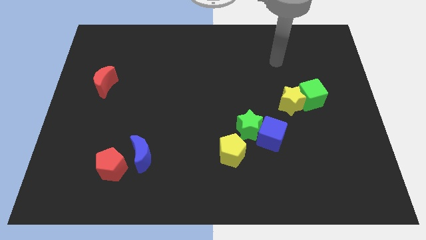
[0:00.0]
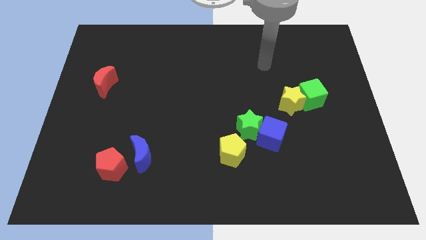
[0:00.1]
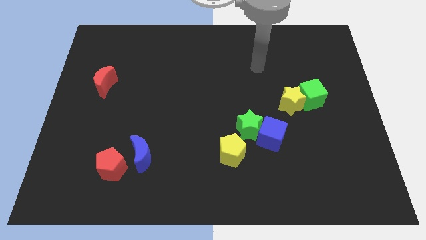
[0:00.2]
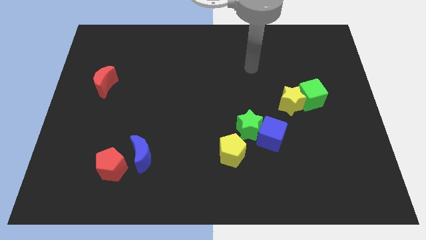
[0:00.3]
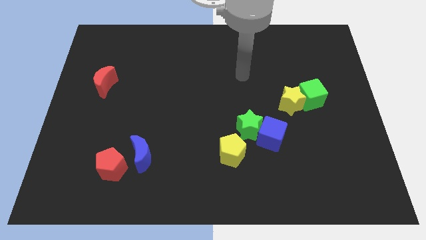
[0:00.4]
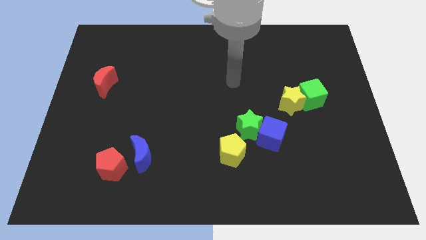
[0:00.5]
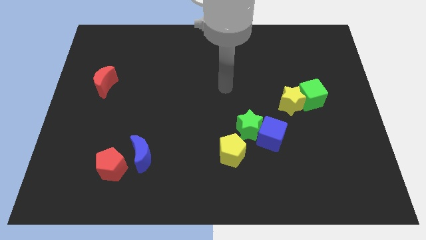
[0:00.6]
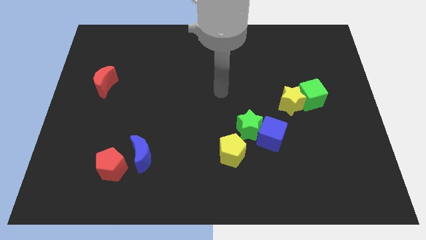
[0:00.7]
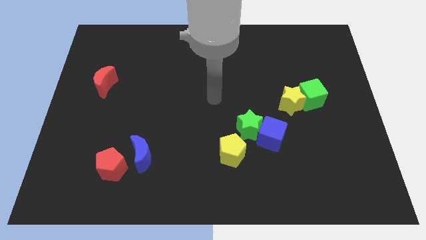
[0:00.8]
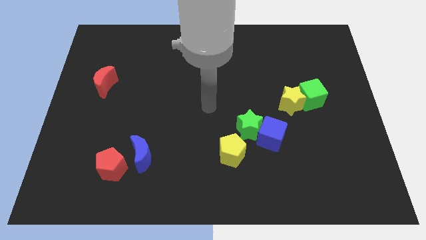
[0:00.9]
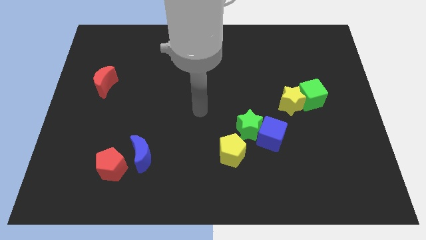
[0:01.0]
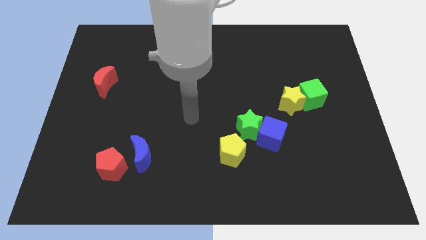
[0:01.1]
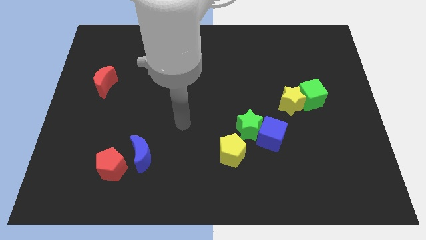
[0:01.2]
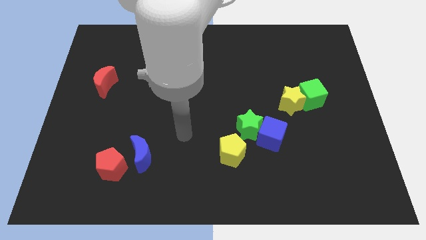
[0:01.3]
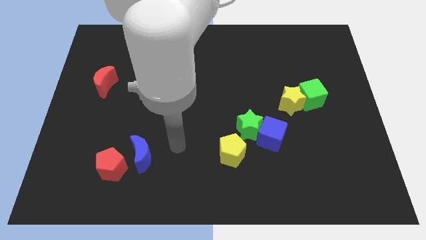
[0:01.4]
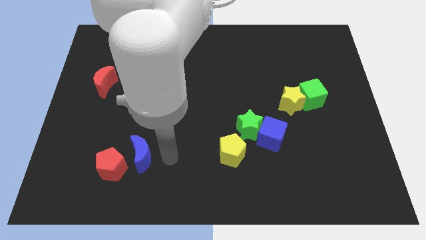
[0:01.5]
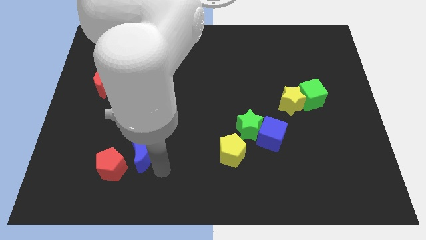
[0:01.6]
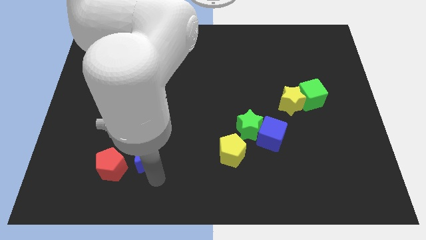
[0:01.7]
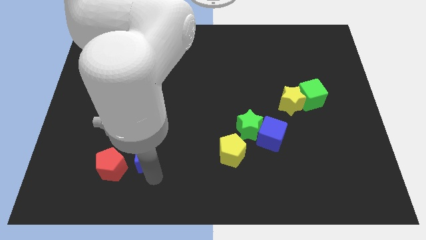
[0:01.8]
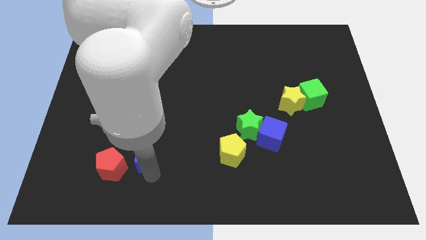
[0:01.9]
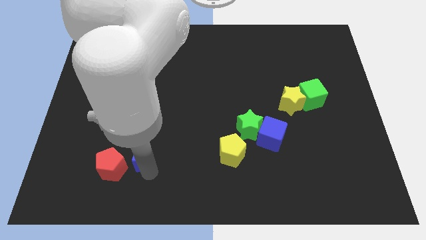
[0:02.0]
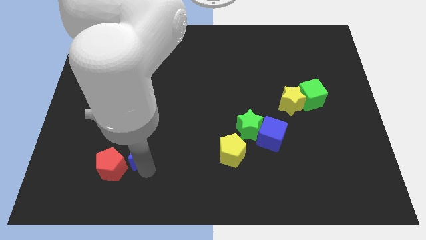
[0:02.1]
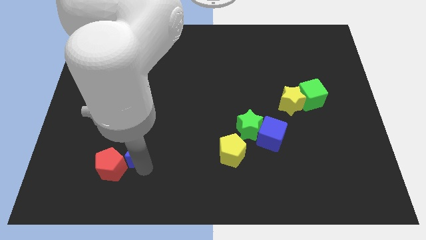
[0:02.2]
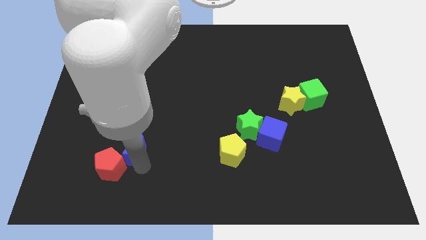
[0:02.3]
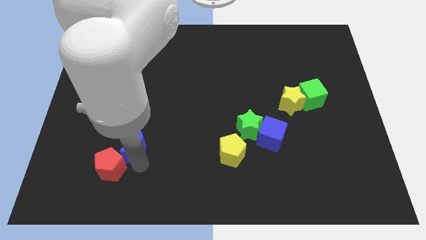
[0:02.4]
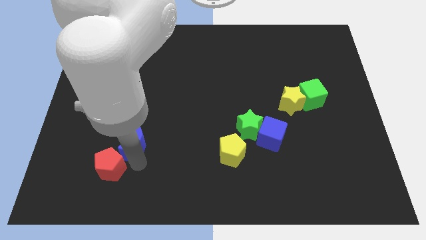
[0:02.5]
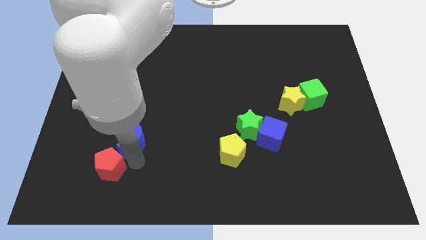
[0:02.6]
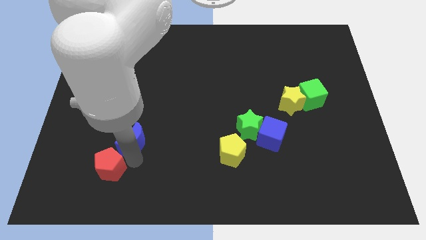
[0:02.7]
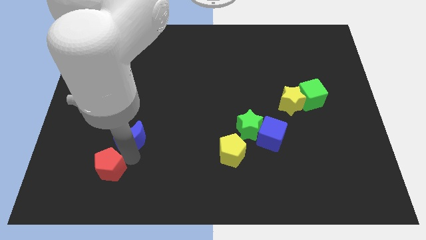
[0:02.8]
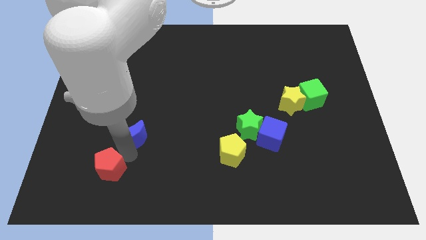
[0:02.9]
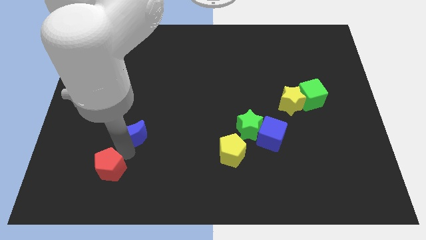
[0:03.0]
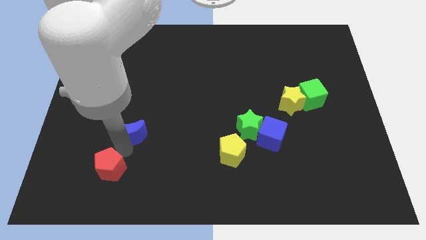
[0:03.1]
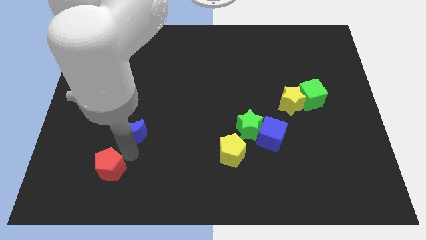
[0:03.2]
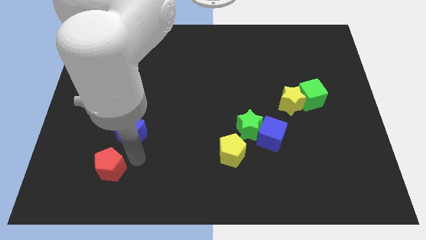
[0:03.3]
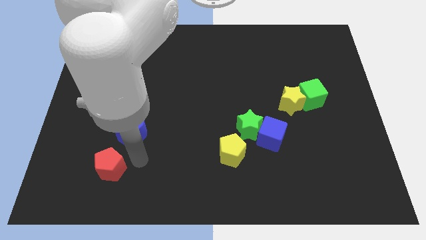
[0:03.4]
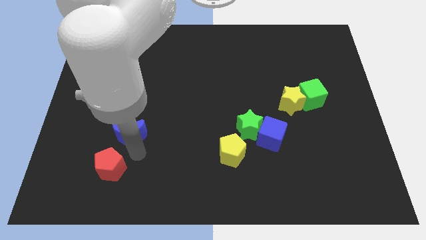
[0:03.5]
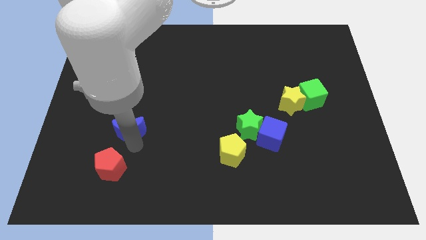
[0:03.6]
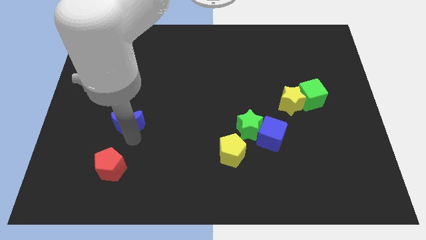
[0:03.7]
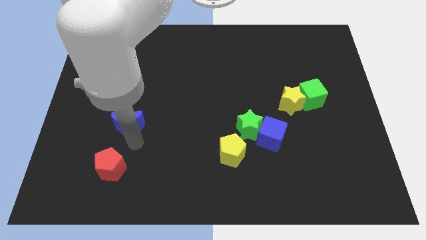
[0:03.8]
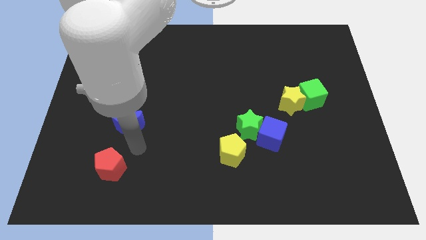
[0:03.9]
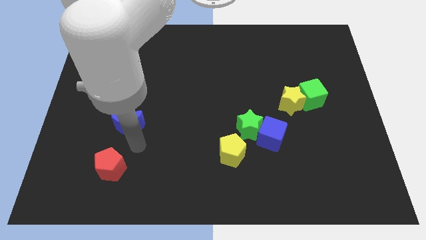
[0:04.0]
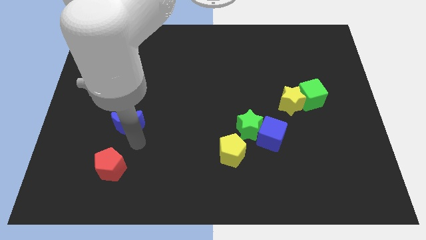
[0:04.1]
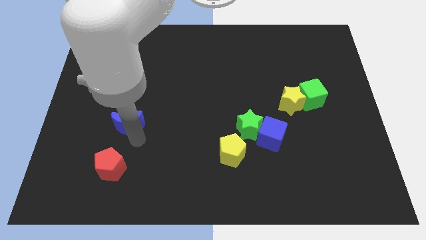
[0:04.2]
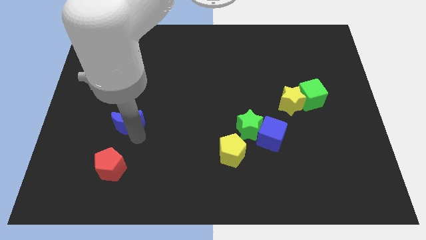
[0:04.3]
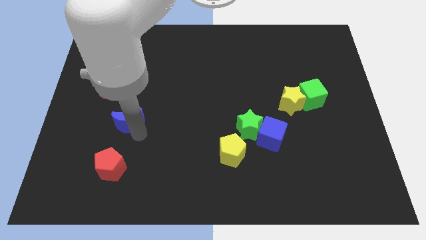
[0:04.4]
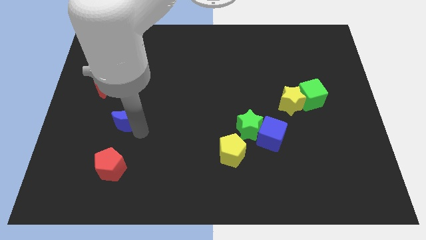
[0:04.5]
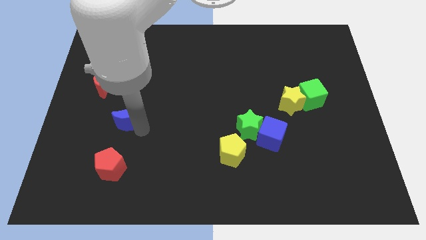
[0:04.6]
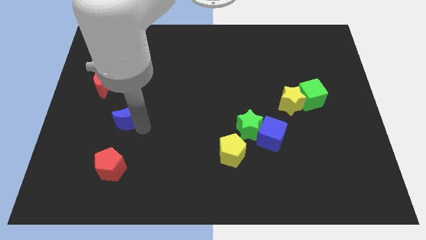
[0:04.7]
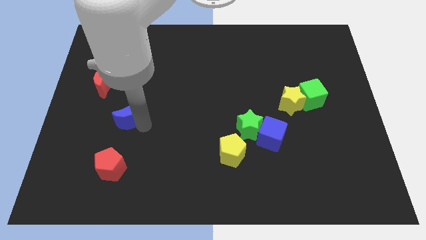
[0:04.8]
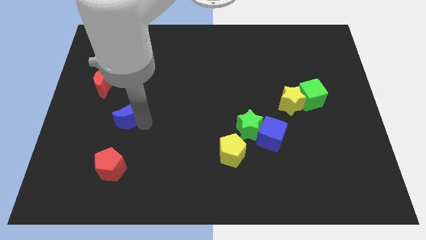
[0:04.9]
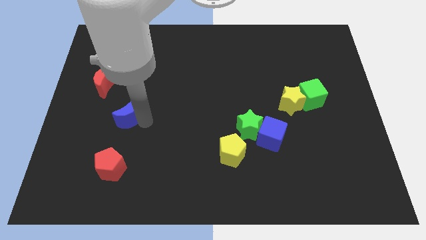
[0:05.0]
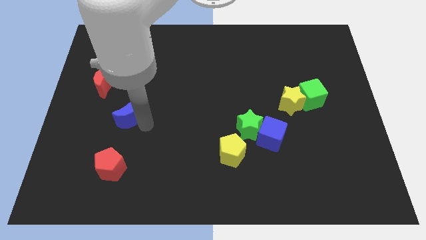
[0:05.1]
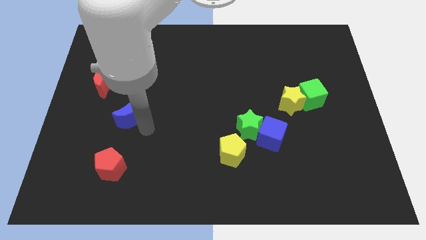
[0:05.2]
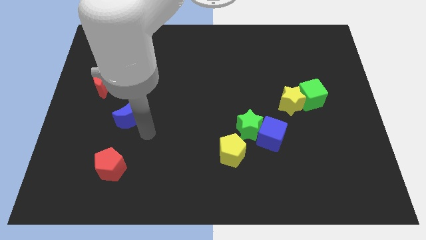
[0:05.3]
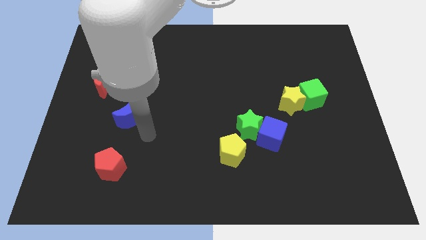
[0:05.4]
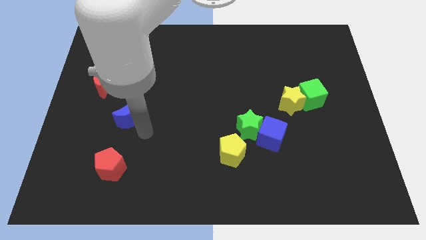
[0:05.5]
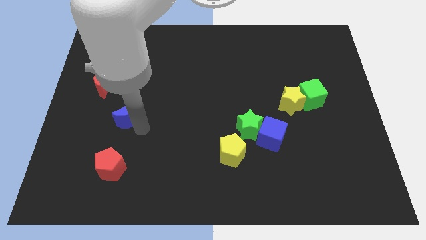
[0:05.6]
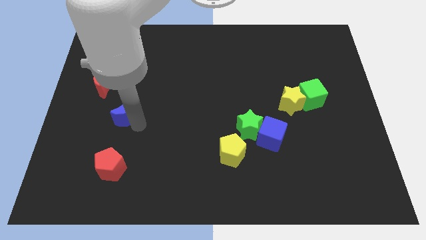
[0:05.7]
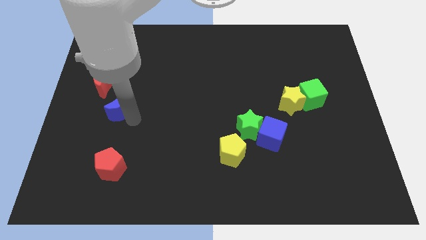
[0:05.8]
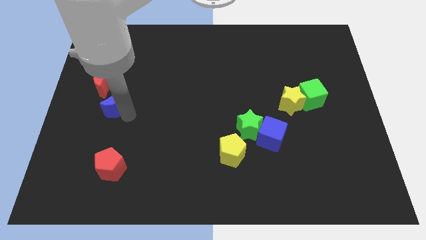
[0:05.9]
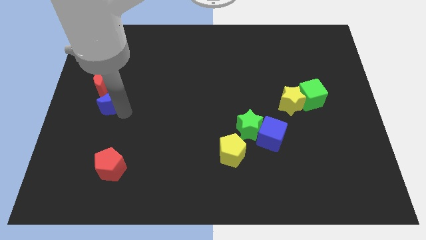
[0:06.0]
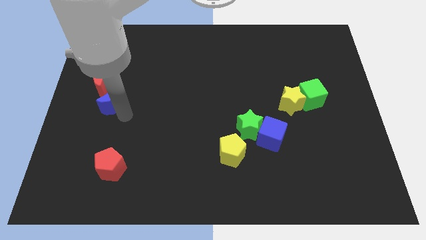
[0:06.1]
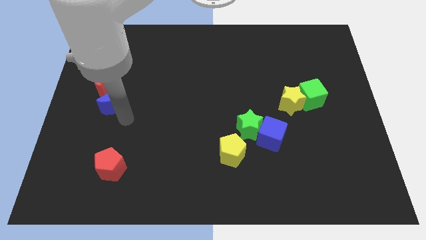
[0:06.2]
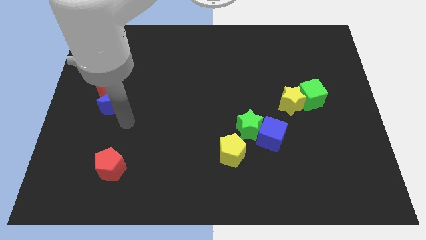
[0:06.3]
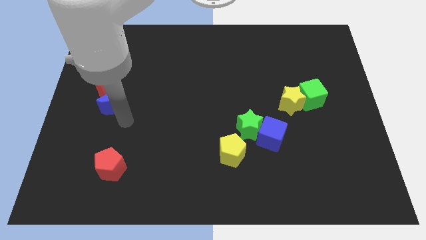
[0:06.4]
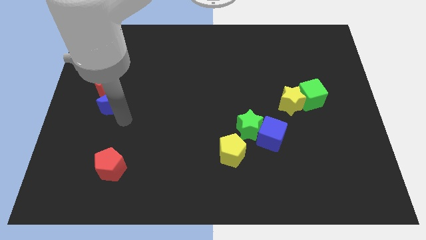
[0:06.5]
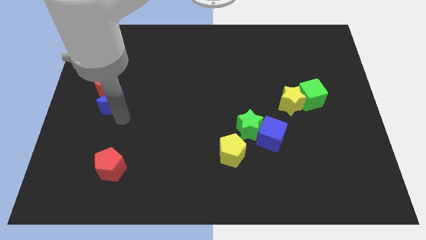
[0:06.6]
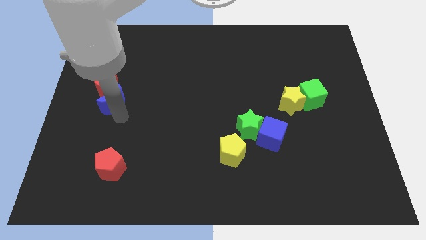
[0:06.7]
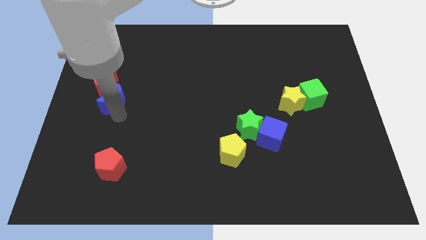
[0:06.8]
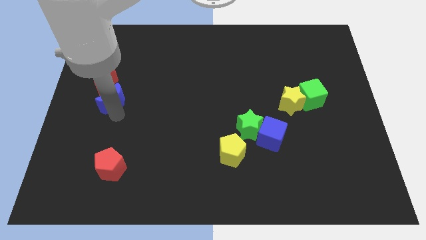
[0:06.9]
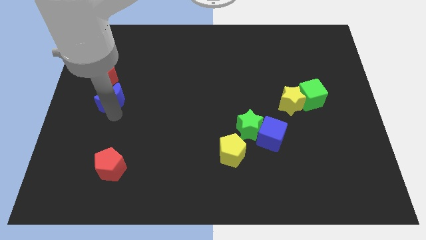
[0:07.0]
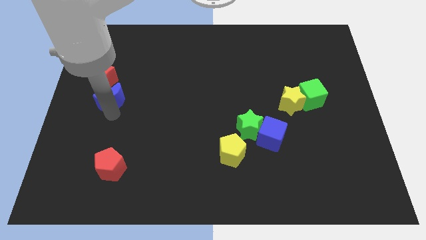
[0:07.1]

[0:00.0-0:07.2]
put the blue moon close to the red moon

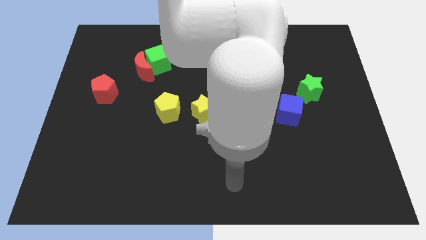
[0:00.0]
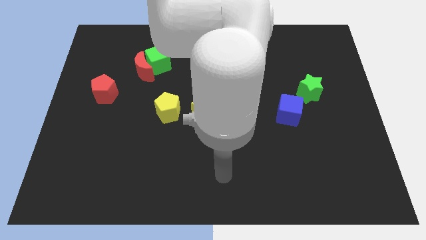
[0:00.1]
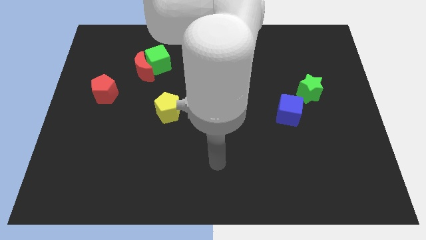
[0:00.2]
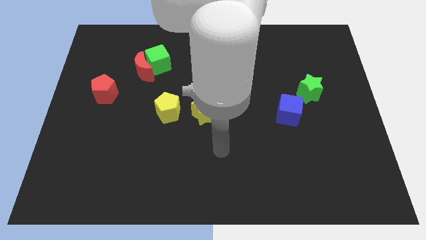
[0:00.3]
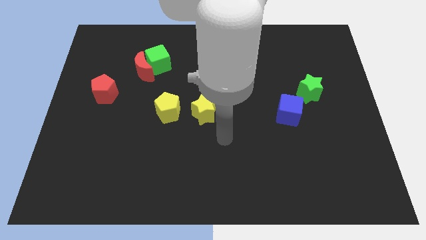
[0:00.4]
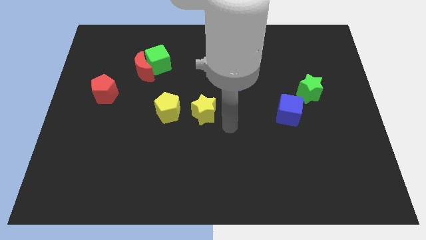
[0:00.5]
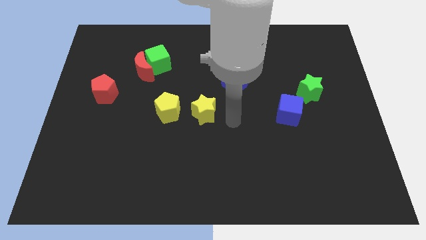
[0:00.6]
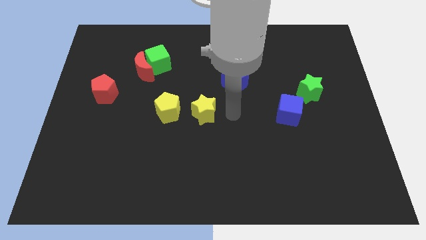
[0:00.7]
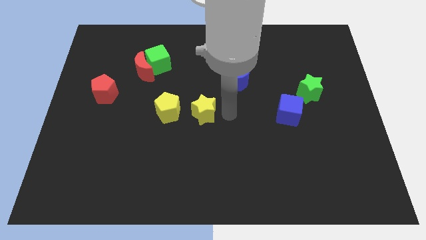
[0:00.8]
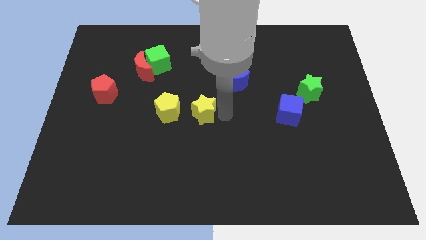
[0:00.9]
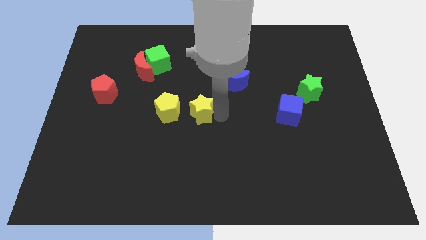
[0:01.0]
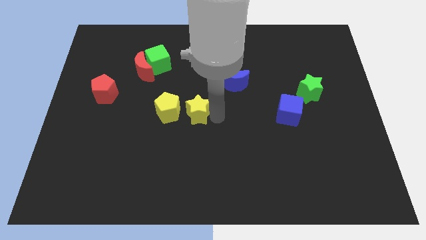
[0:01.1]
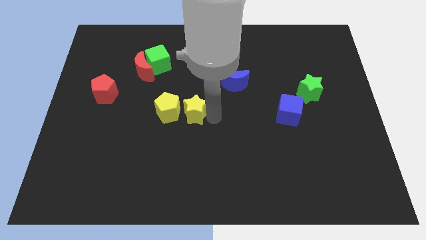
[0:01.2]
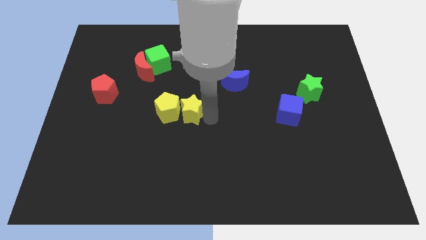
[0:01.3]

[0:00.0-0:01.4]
push the yellow star to the yellow pentagon
